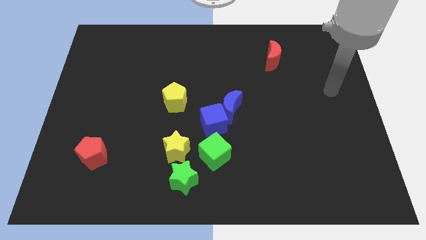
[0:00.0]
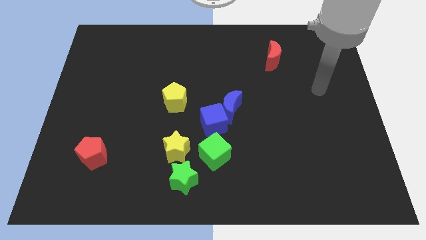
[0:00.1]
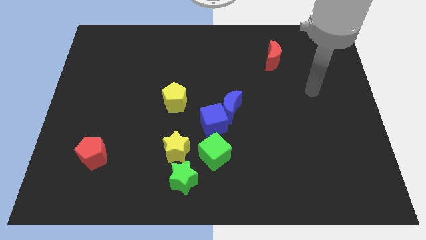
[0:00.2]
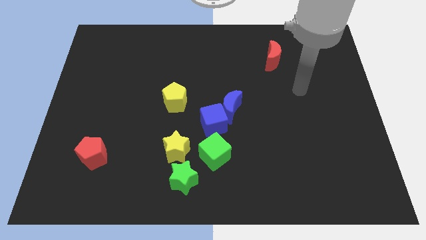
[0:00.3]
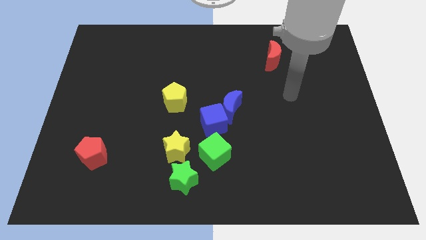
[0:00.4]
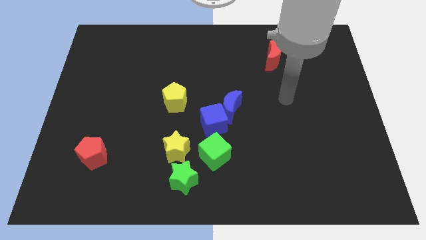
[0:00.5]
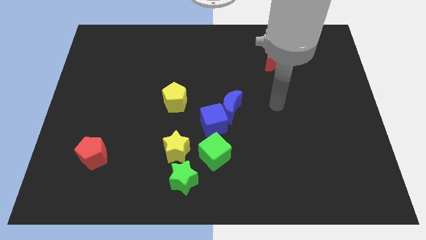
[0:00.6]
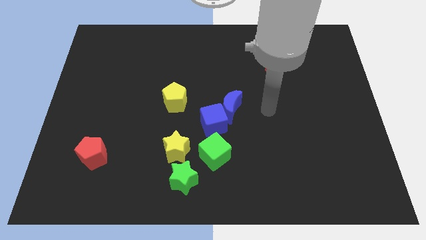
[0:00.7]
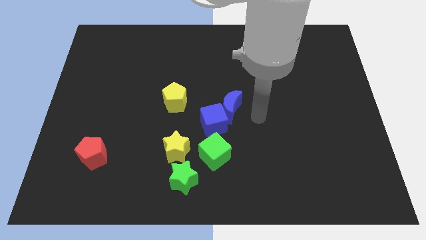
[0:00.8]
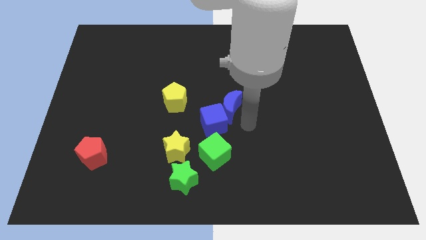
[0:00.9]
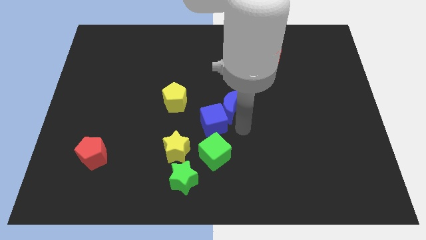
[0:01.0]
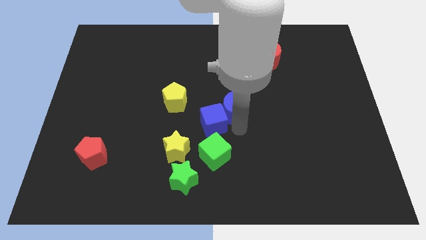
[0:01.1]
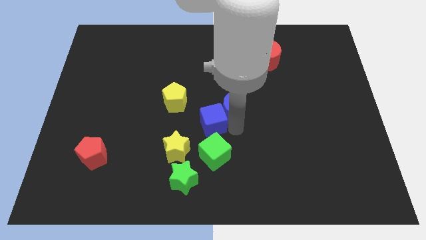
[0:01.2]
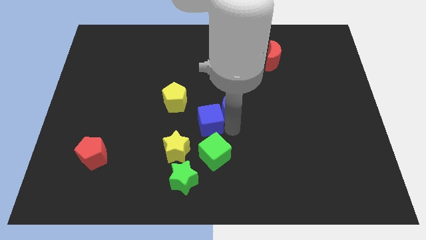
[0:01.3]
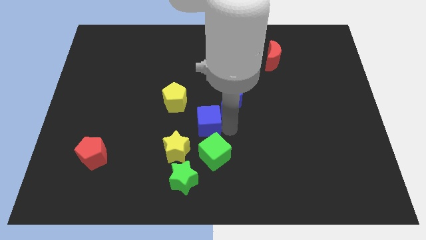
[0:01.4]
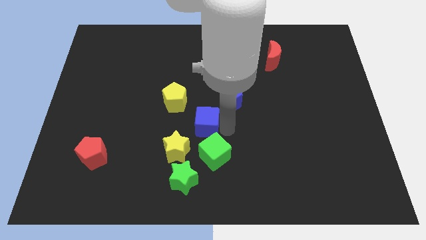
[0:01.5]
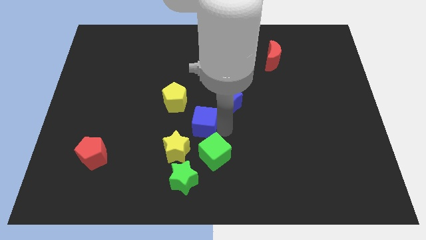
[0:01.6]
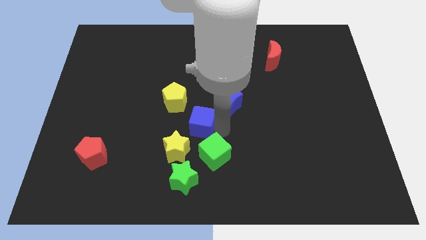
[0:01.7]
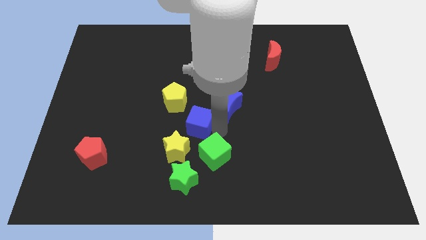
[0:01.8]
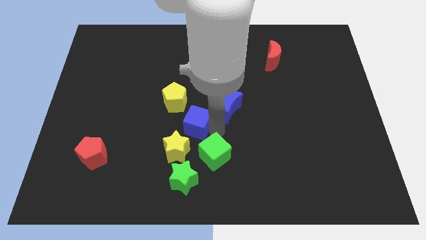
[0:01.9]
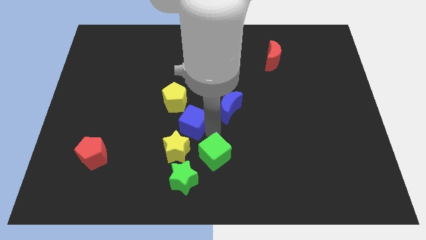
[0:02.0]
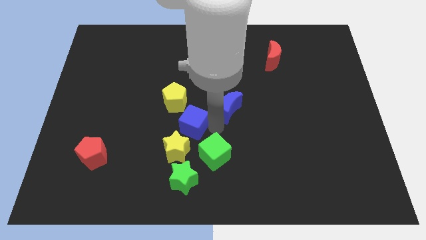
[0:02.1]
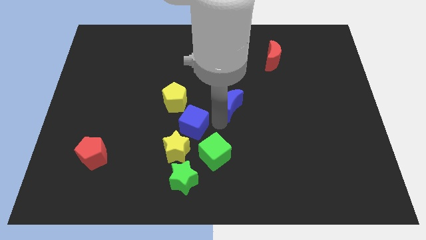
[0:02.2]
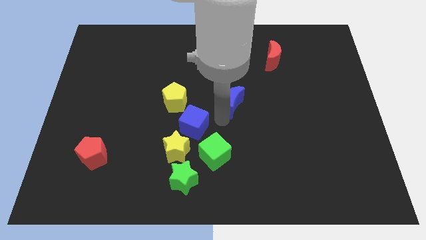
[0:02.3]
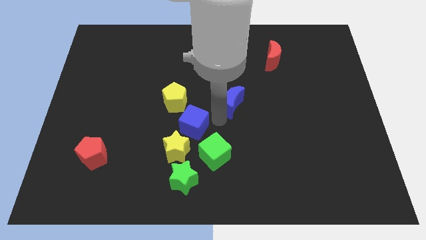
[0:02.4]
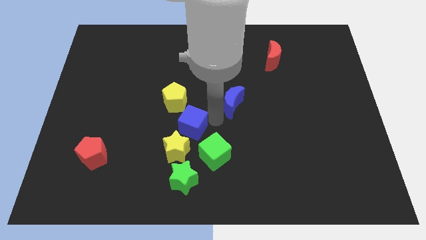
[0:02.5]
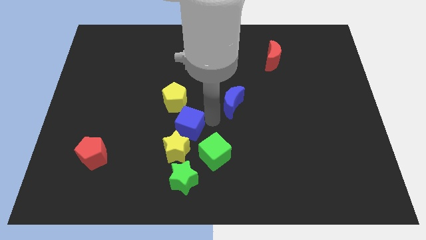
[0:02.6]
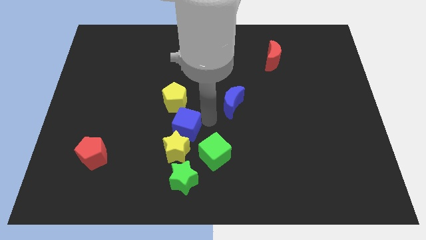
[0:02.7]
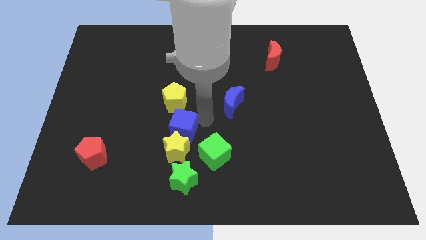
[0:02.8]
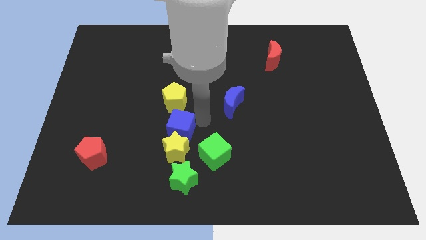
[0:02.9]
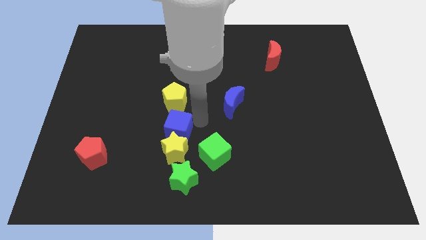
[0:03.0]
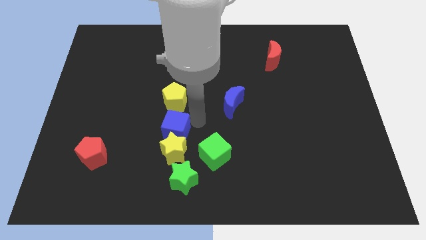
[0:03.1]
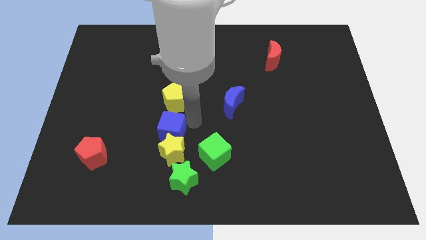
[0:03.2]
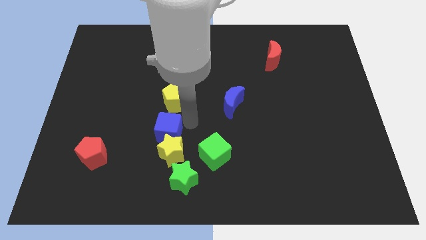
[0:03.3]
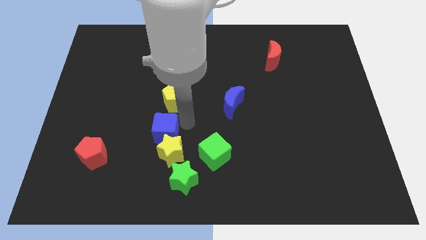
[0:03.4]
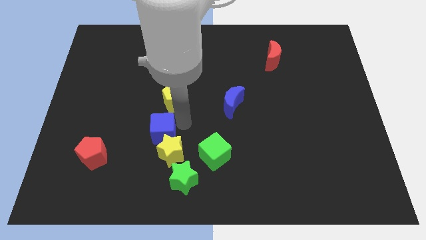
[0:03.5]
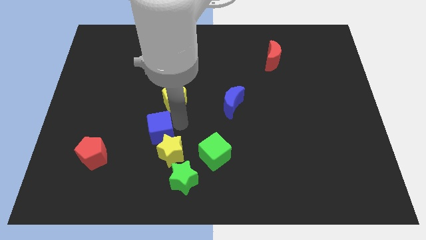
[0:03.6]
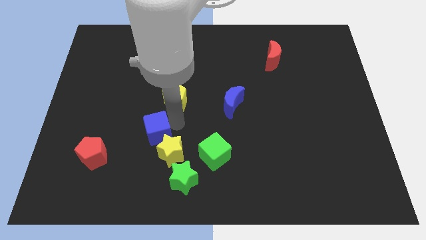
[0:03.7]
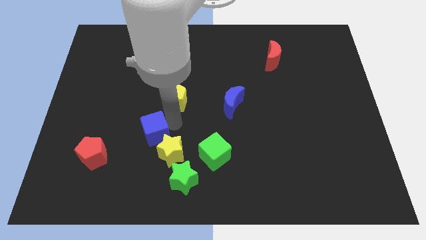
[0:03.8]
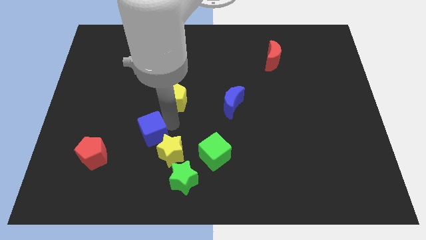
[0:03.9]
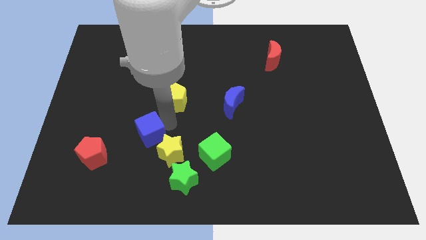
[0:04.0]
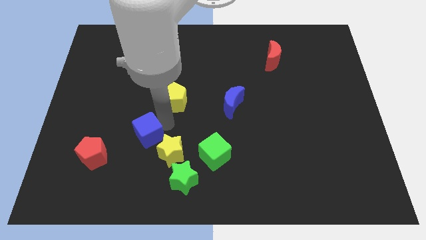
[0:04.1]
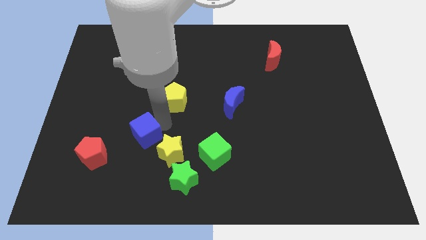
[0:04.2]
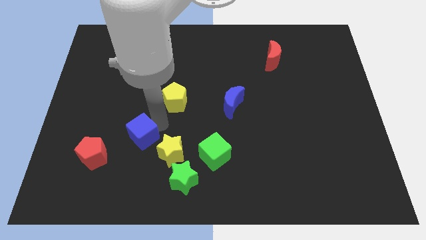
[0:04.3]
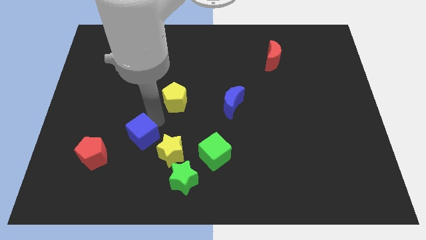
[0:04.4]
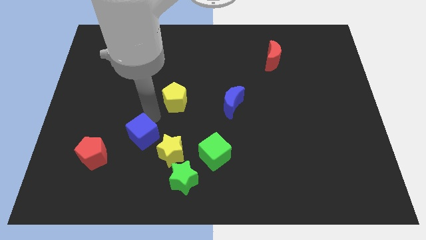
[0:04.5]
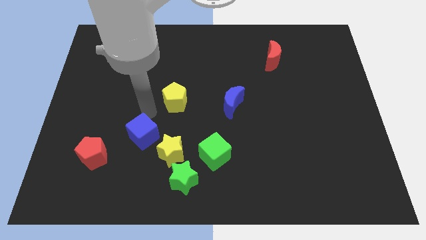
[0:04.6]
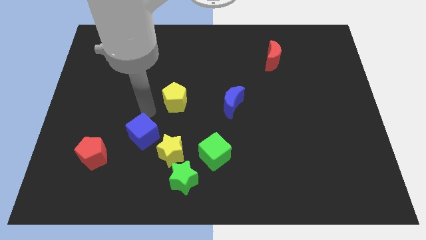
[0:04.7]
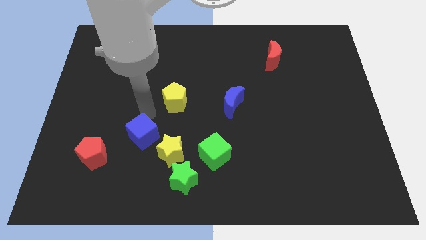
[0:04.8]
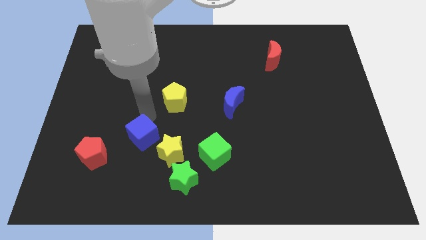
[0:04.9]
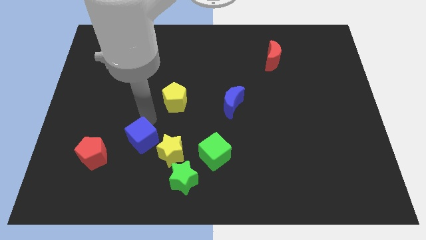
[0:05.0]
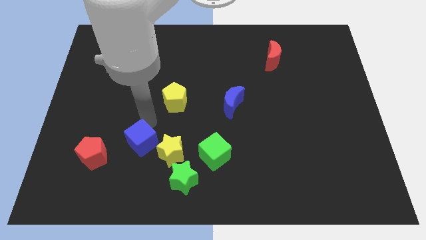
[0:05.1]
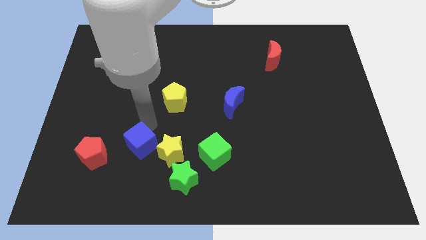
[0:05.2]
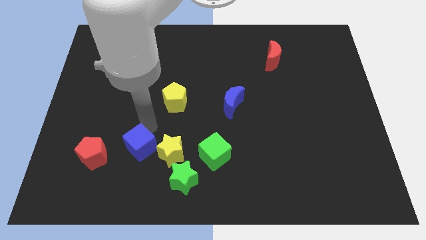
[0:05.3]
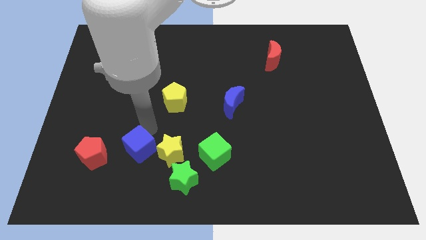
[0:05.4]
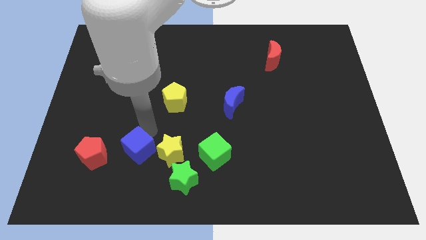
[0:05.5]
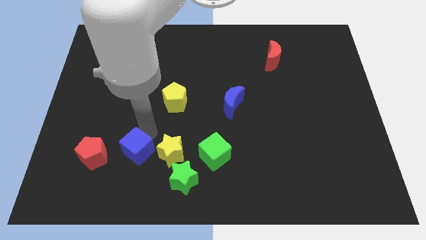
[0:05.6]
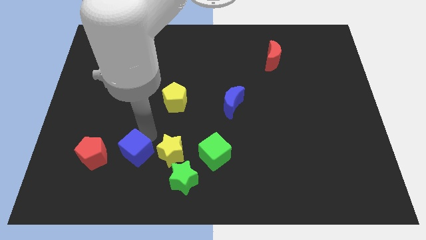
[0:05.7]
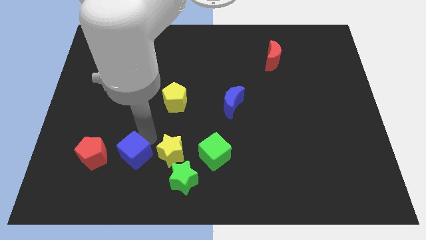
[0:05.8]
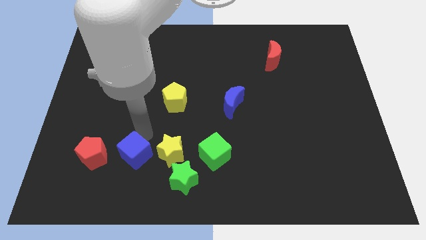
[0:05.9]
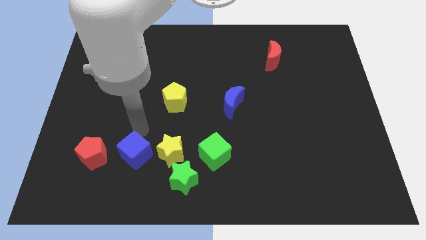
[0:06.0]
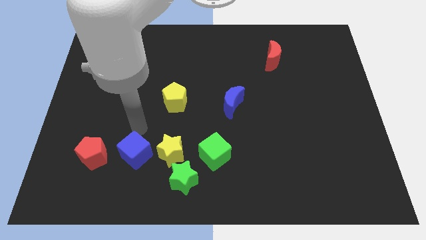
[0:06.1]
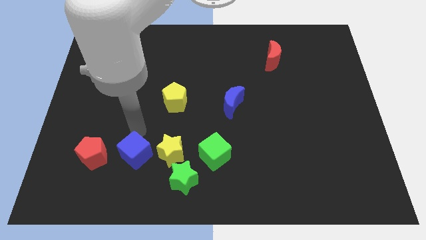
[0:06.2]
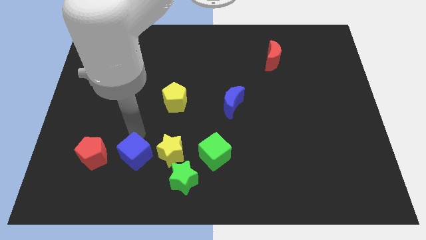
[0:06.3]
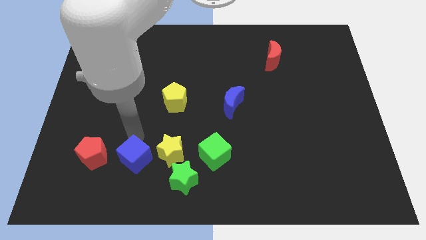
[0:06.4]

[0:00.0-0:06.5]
put the blue cube to the left of the green star

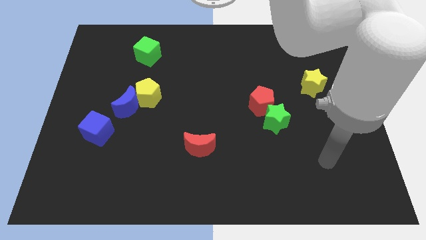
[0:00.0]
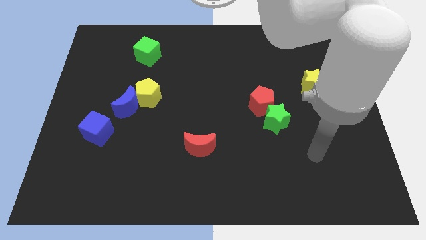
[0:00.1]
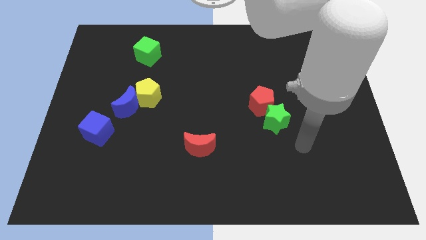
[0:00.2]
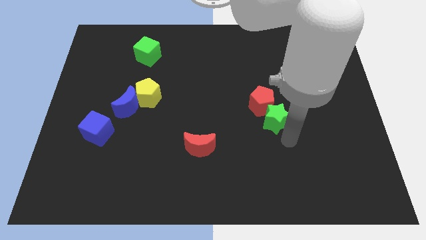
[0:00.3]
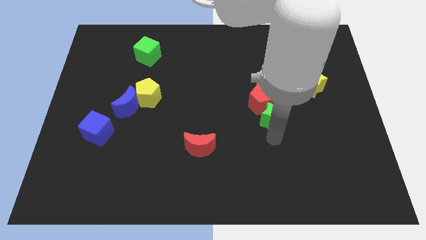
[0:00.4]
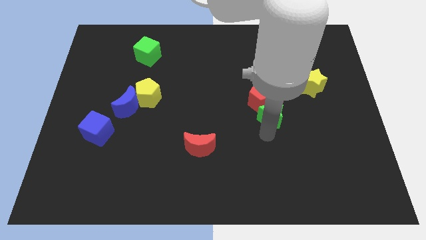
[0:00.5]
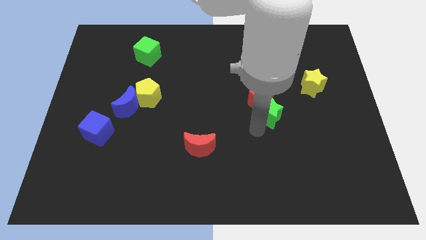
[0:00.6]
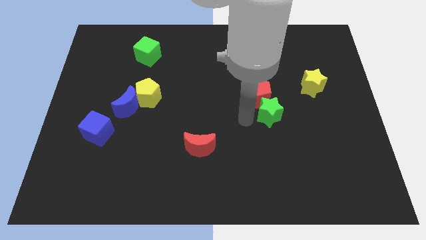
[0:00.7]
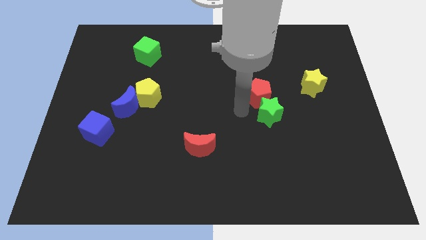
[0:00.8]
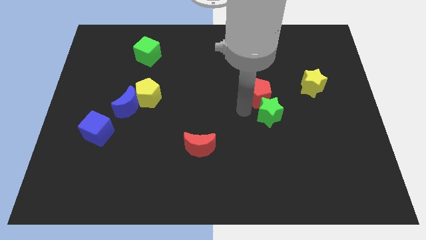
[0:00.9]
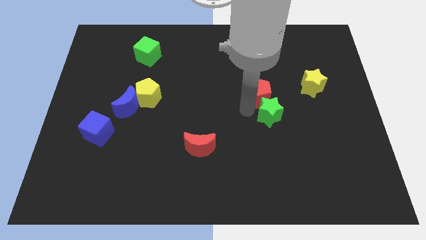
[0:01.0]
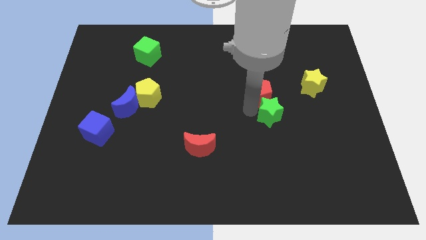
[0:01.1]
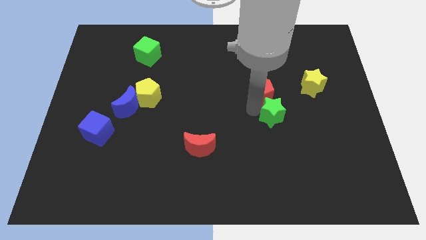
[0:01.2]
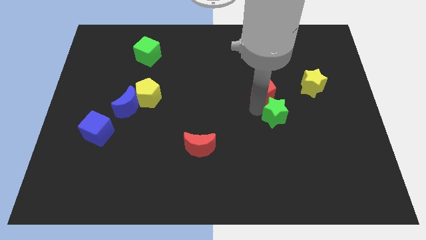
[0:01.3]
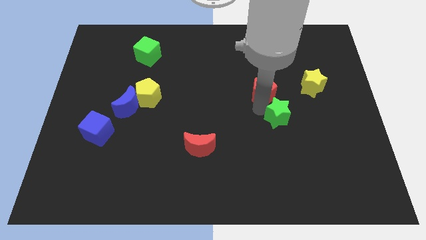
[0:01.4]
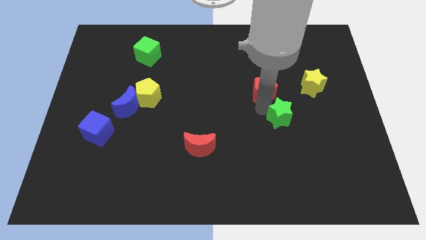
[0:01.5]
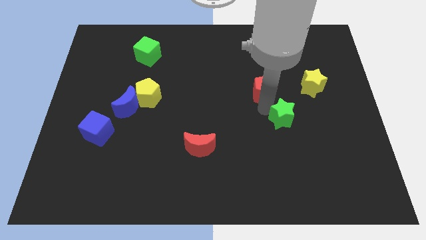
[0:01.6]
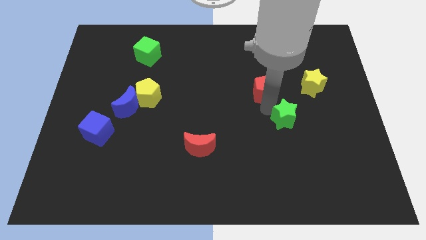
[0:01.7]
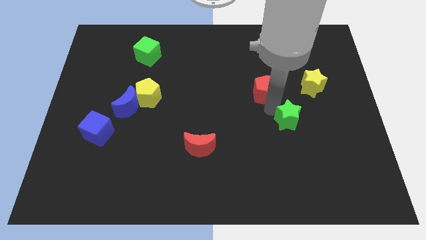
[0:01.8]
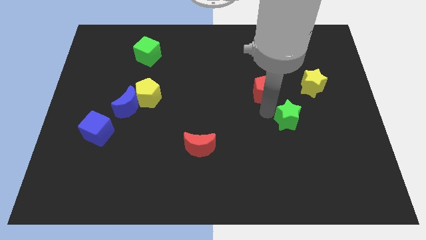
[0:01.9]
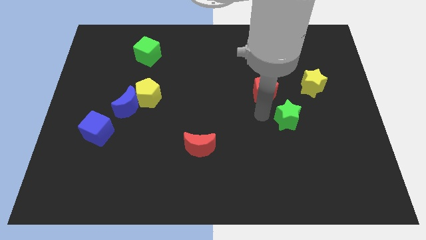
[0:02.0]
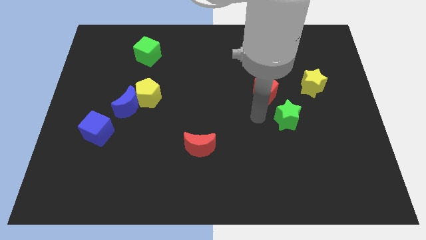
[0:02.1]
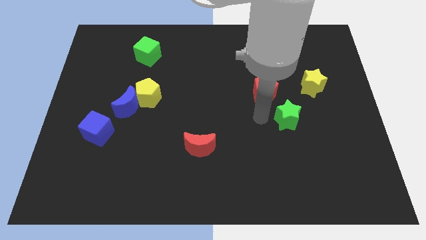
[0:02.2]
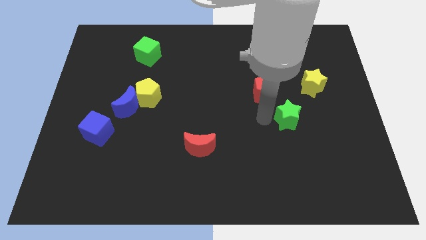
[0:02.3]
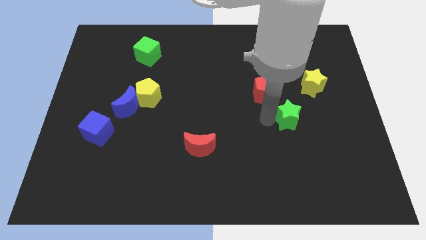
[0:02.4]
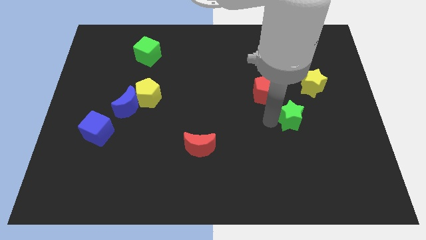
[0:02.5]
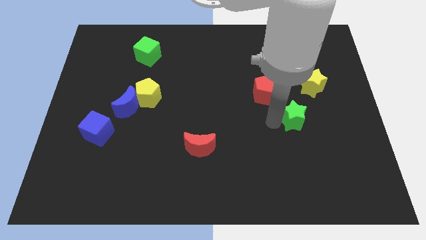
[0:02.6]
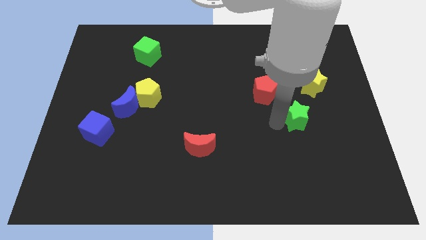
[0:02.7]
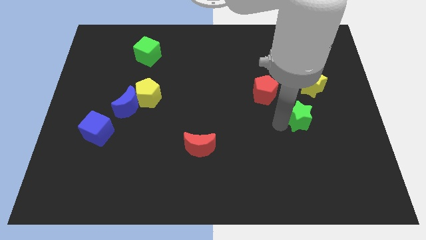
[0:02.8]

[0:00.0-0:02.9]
push the green star to the bottom side of the yellow star
